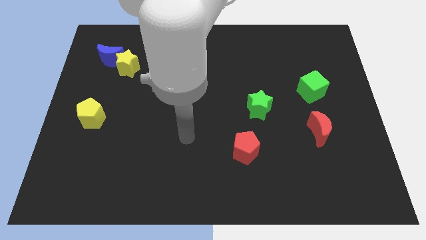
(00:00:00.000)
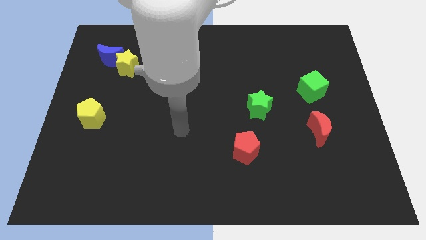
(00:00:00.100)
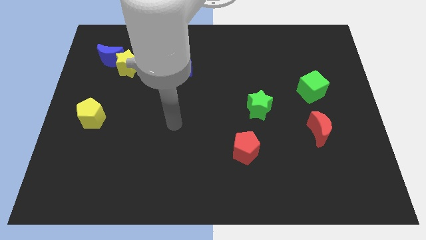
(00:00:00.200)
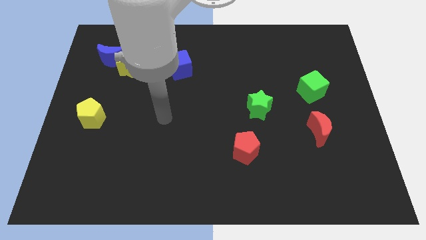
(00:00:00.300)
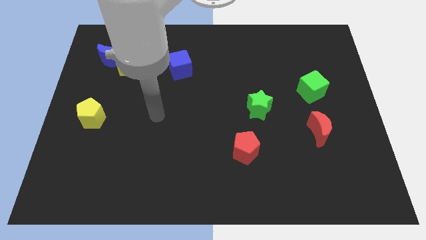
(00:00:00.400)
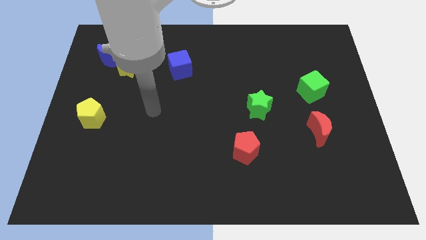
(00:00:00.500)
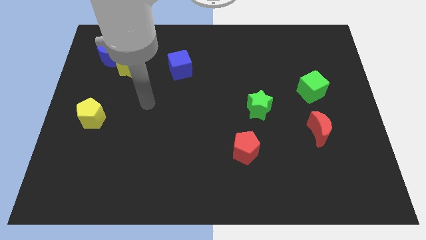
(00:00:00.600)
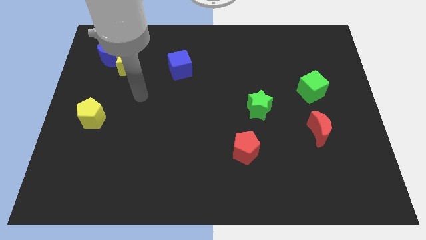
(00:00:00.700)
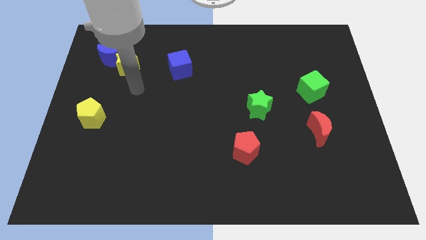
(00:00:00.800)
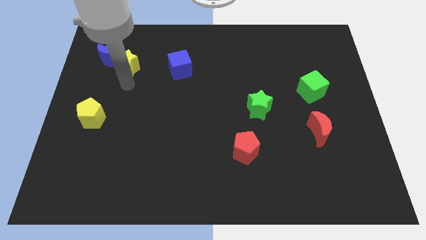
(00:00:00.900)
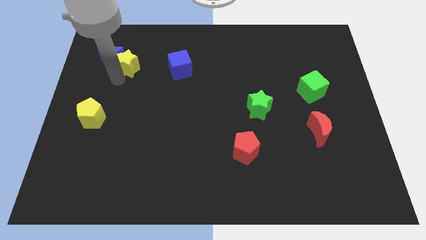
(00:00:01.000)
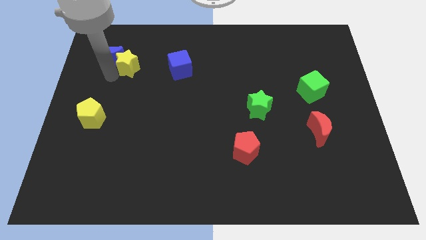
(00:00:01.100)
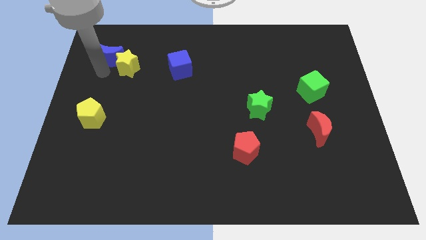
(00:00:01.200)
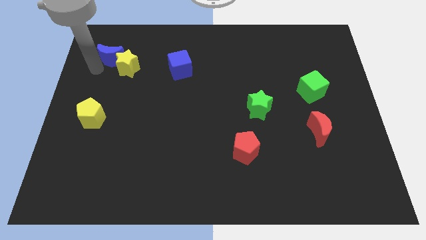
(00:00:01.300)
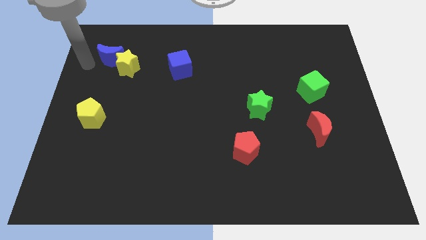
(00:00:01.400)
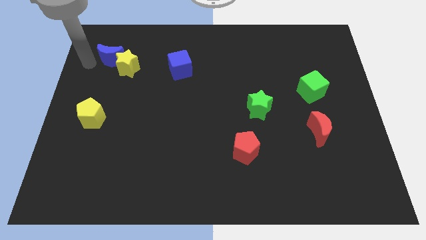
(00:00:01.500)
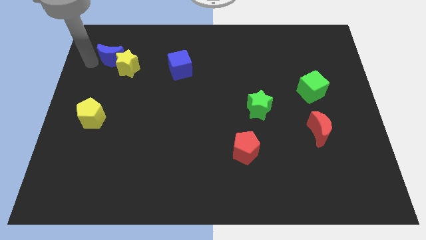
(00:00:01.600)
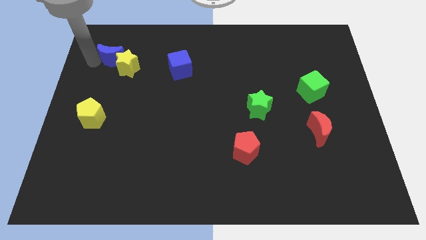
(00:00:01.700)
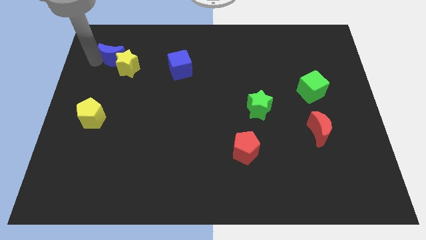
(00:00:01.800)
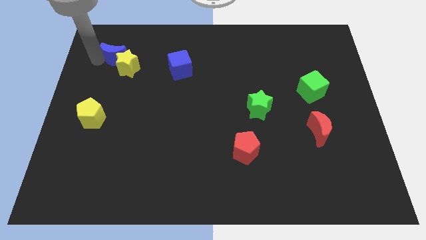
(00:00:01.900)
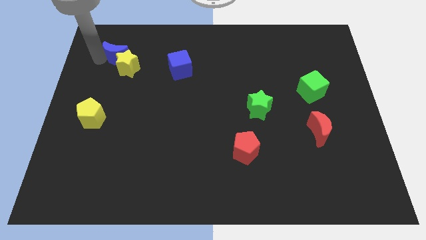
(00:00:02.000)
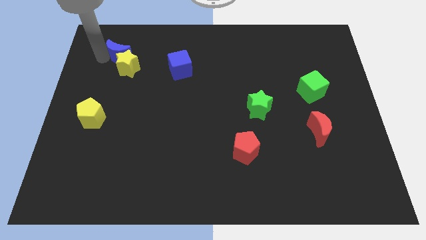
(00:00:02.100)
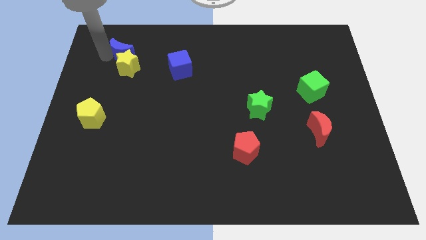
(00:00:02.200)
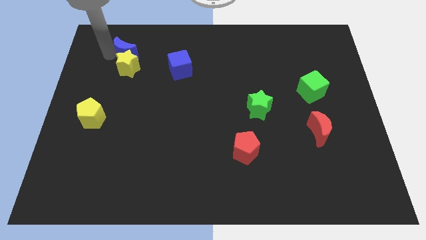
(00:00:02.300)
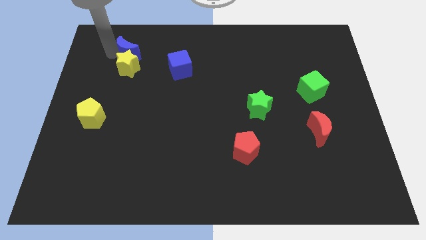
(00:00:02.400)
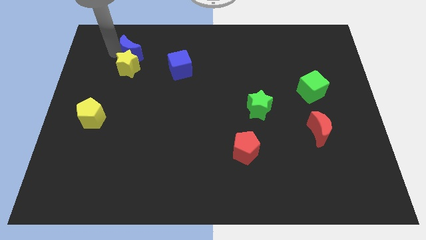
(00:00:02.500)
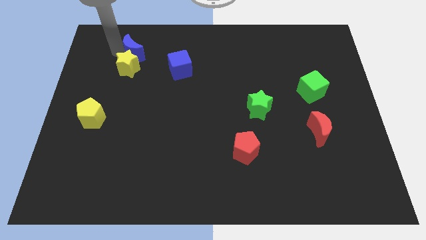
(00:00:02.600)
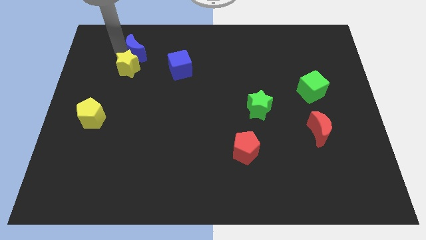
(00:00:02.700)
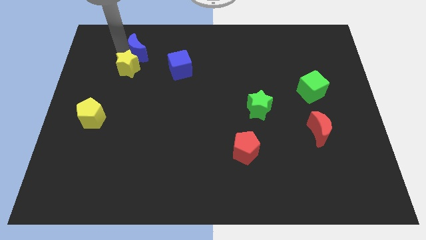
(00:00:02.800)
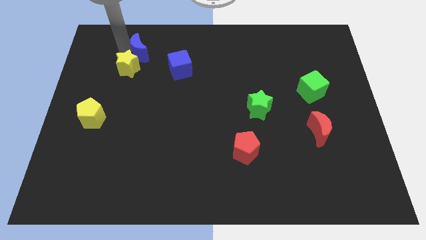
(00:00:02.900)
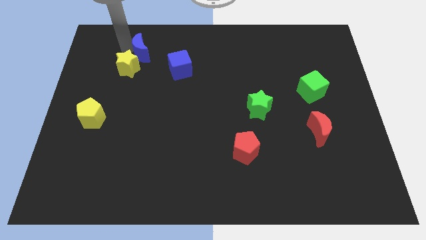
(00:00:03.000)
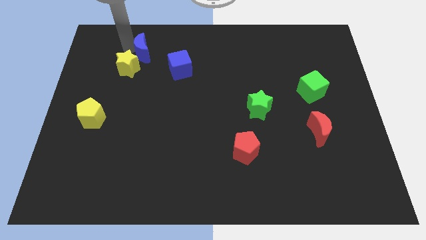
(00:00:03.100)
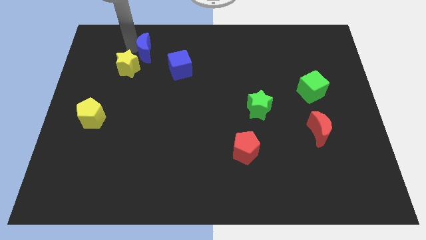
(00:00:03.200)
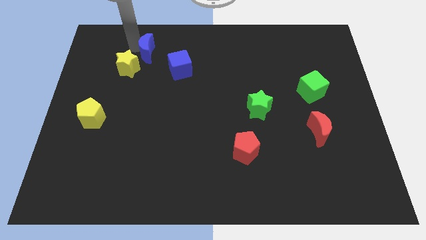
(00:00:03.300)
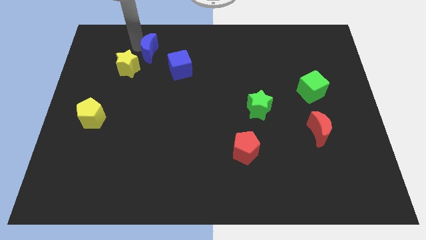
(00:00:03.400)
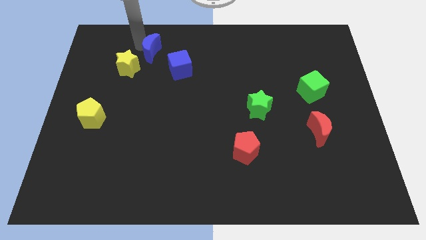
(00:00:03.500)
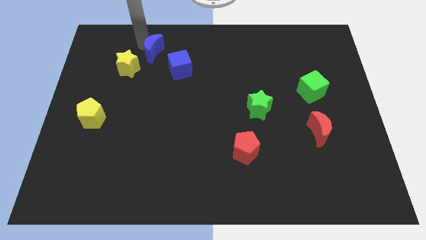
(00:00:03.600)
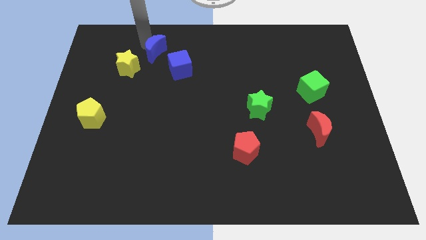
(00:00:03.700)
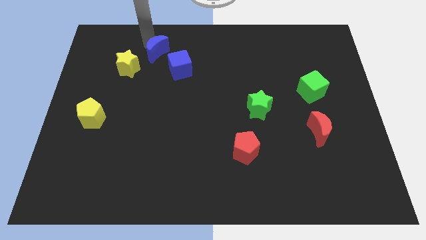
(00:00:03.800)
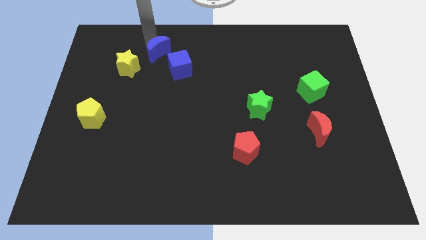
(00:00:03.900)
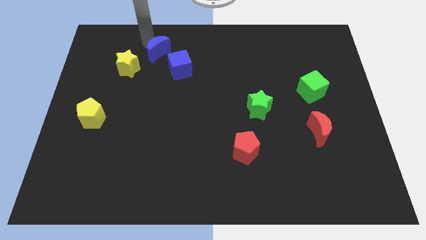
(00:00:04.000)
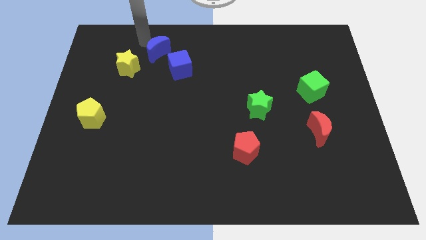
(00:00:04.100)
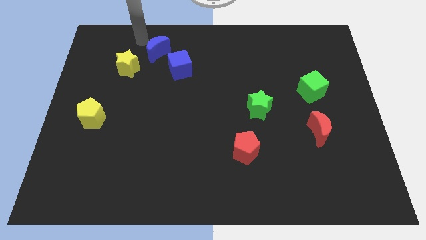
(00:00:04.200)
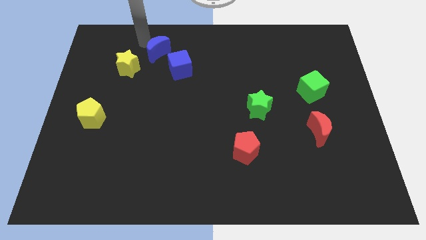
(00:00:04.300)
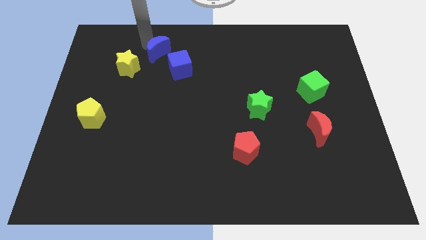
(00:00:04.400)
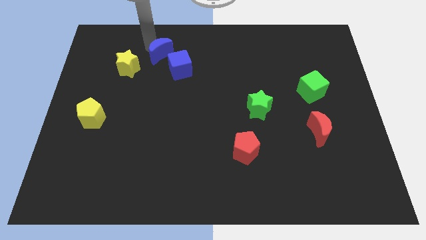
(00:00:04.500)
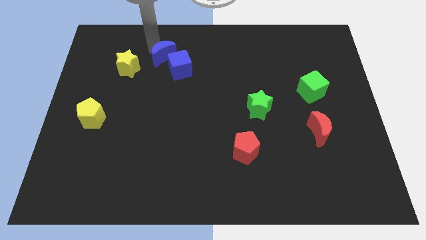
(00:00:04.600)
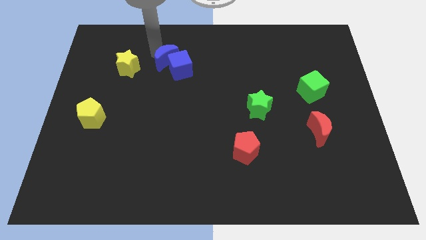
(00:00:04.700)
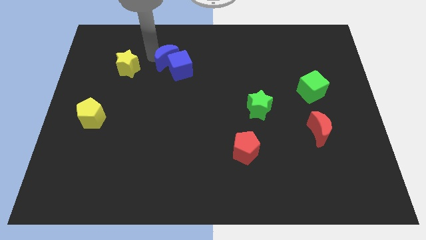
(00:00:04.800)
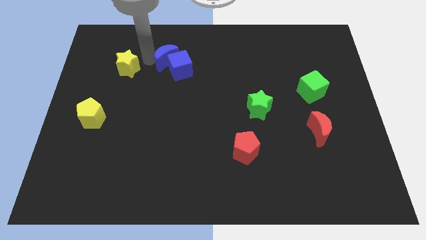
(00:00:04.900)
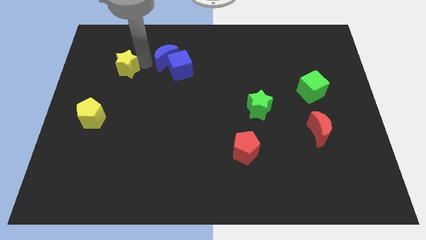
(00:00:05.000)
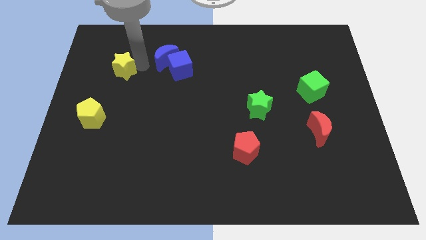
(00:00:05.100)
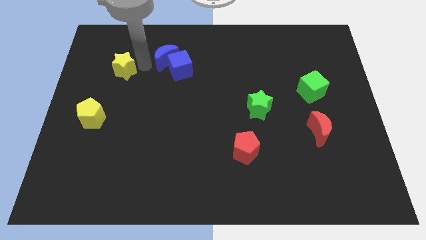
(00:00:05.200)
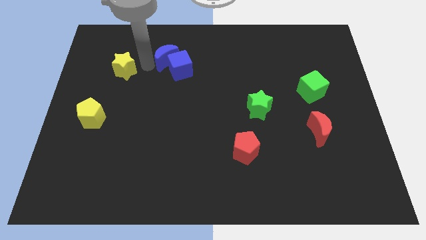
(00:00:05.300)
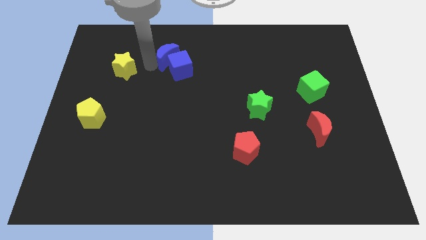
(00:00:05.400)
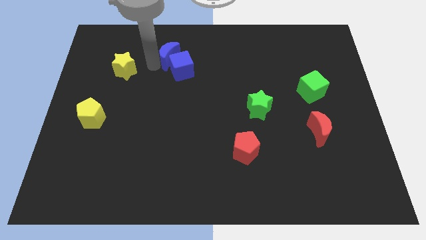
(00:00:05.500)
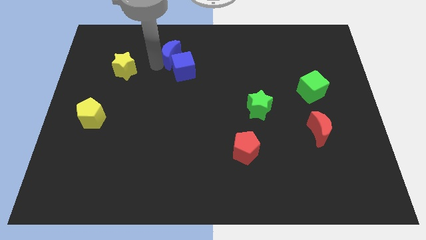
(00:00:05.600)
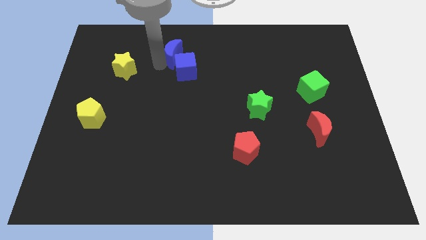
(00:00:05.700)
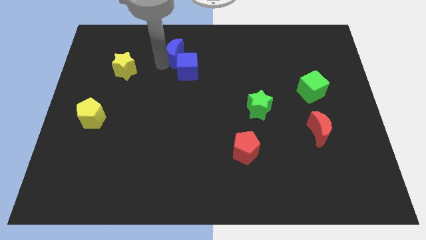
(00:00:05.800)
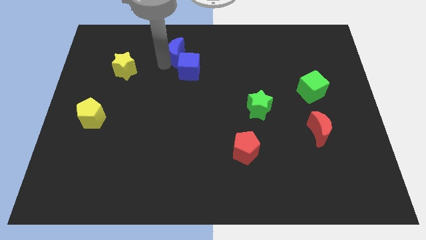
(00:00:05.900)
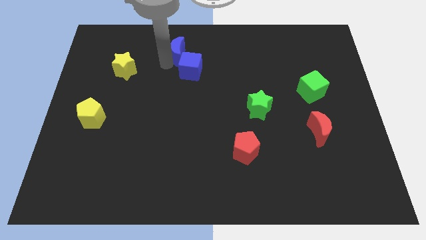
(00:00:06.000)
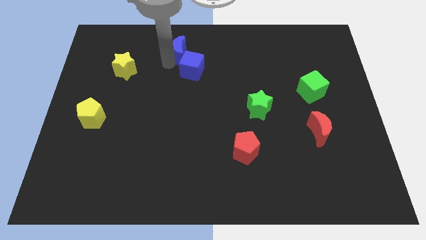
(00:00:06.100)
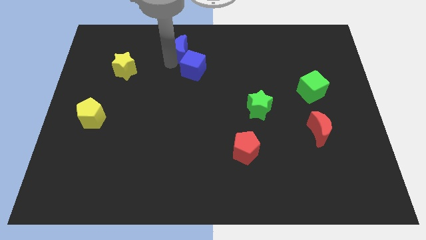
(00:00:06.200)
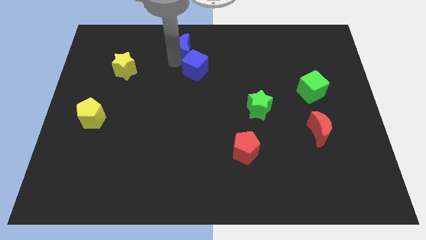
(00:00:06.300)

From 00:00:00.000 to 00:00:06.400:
move the blue moon to the top side

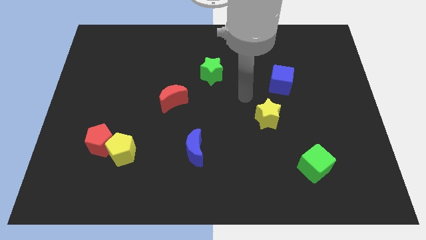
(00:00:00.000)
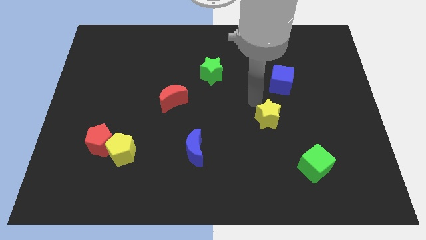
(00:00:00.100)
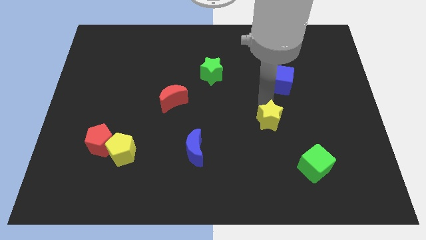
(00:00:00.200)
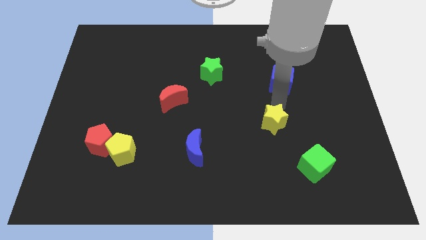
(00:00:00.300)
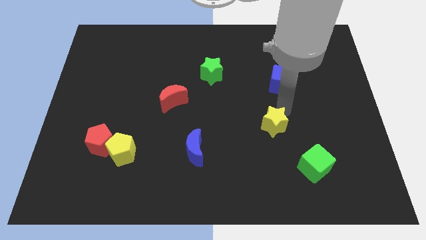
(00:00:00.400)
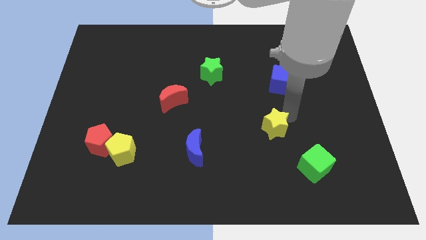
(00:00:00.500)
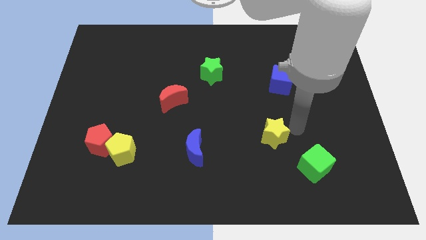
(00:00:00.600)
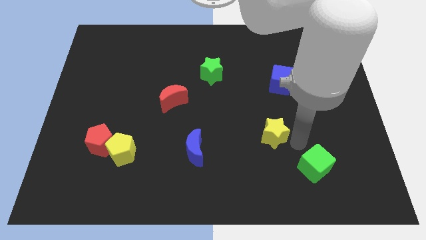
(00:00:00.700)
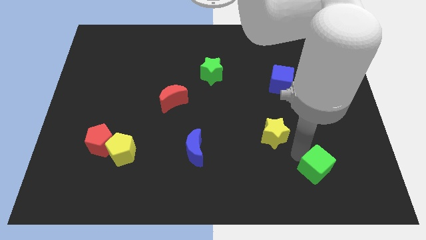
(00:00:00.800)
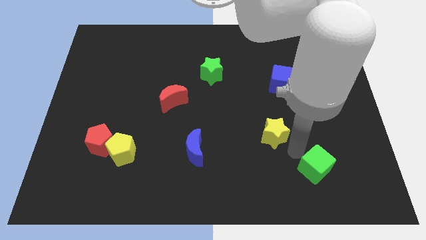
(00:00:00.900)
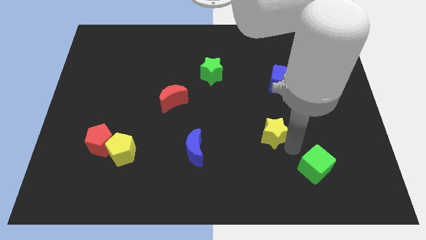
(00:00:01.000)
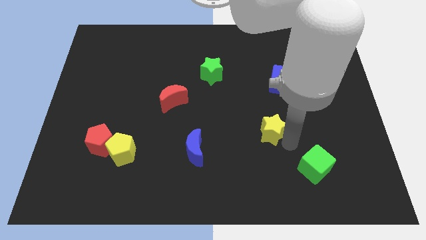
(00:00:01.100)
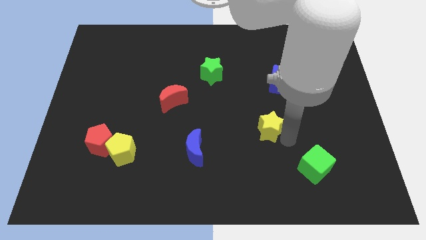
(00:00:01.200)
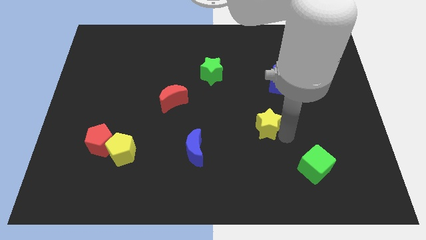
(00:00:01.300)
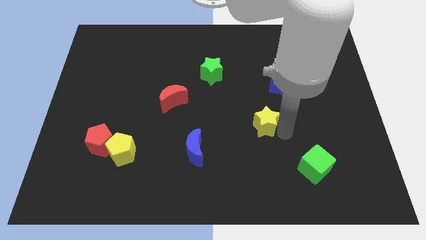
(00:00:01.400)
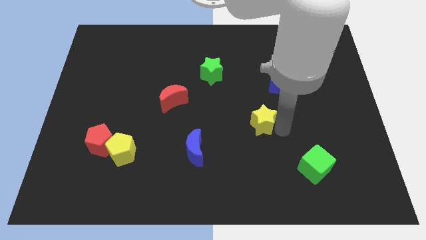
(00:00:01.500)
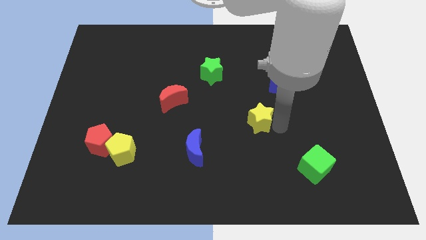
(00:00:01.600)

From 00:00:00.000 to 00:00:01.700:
slide the yellow star to the middle
